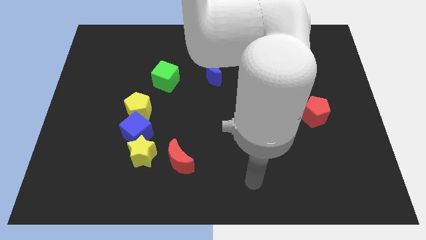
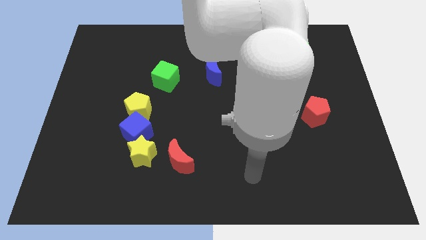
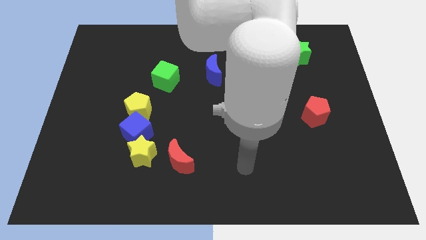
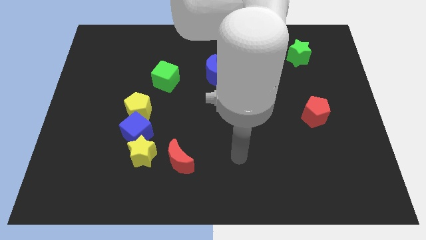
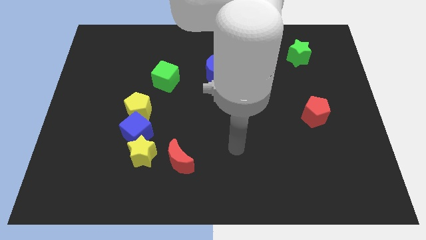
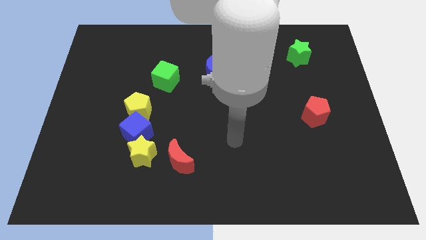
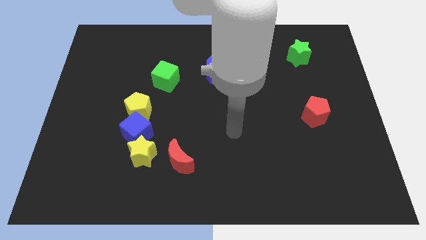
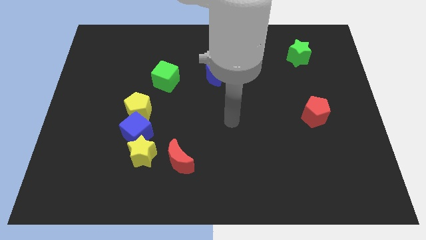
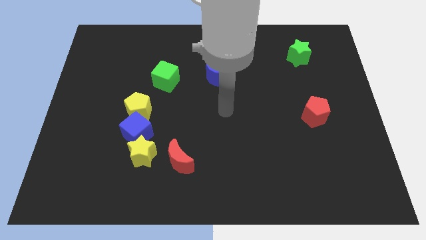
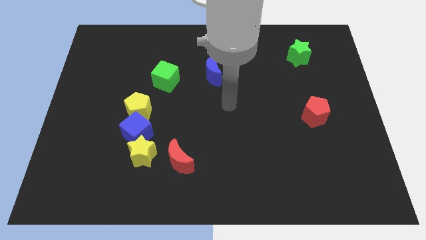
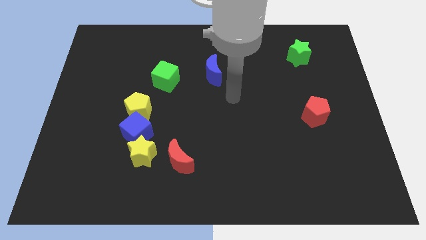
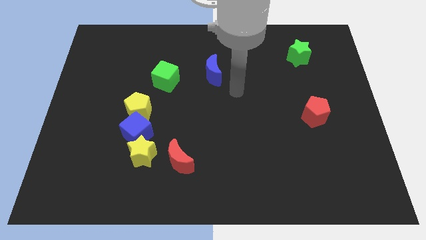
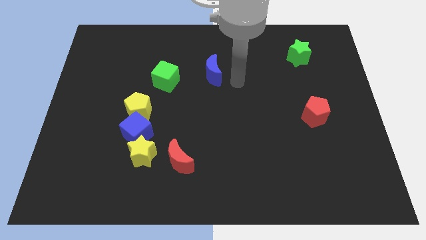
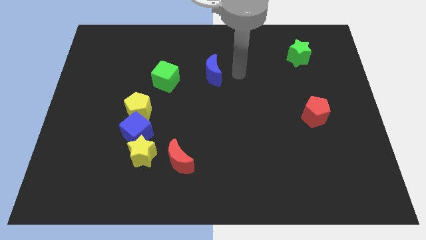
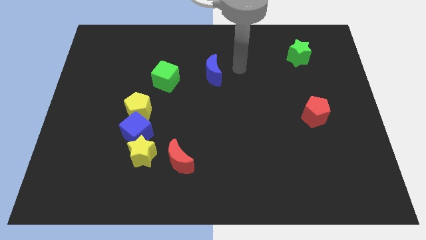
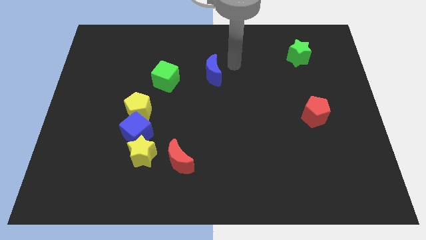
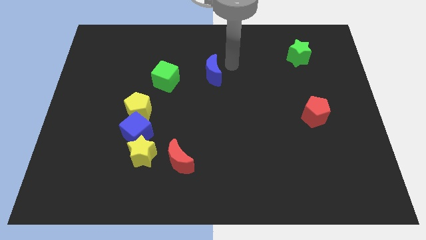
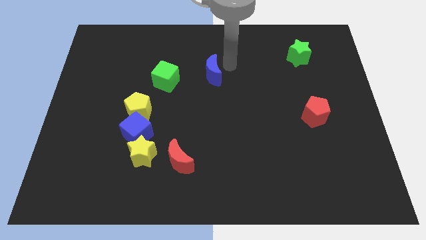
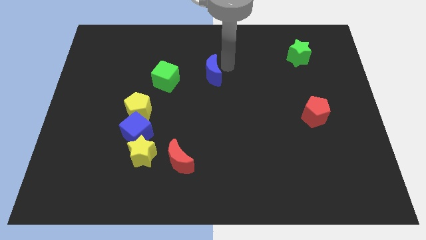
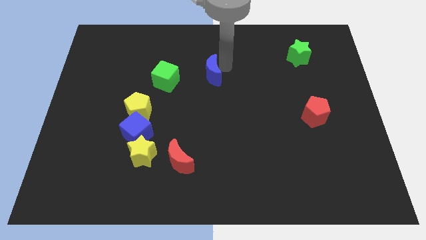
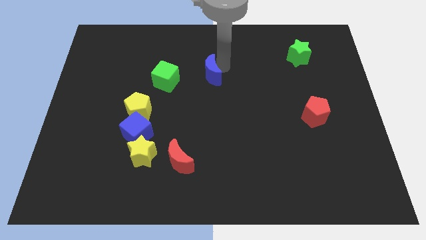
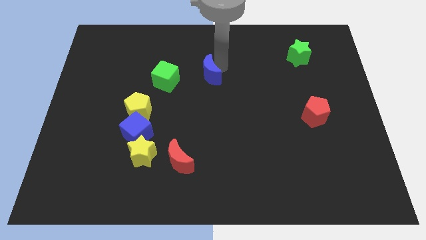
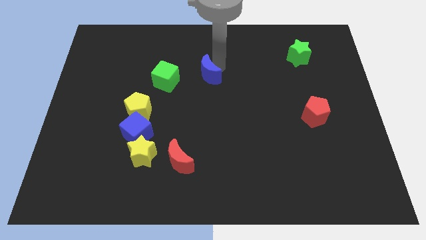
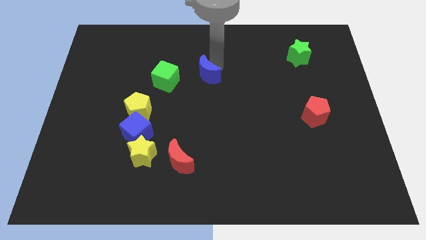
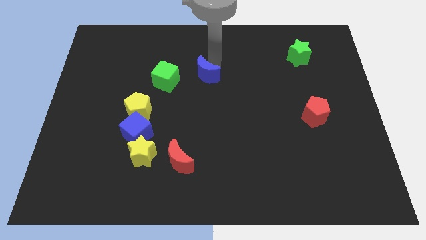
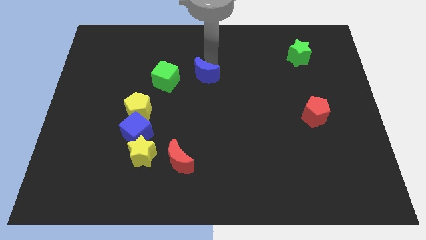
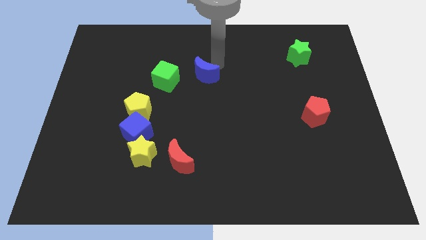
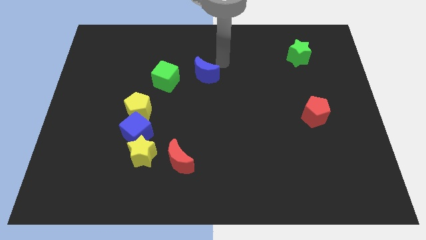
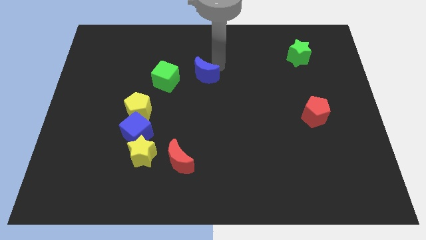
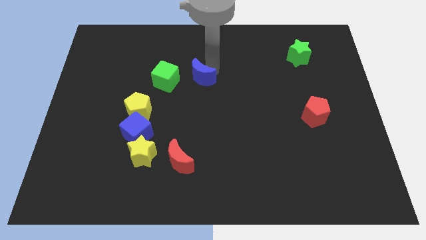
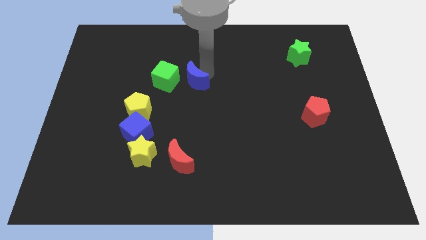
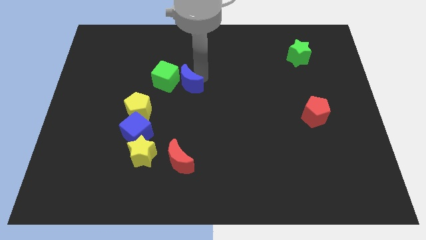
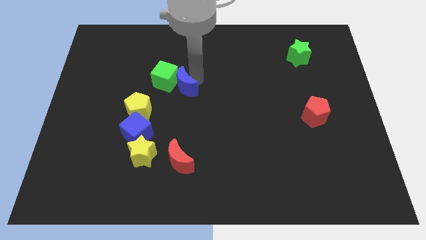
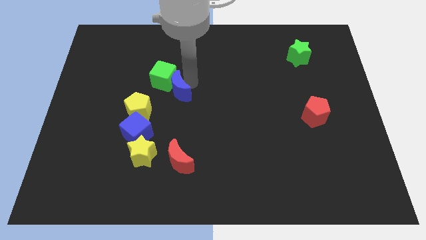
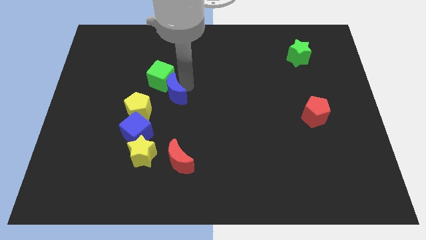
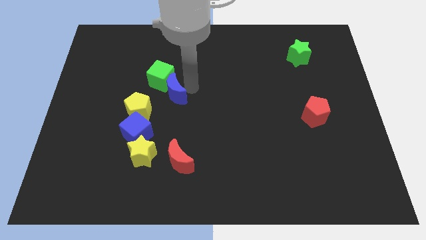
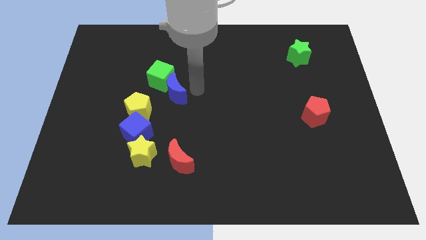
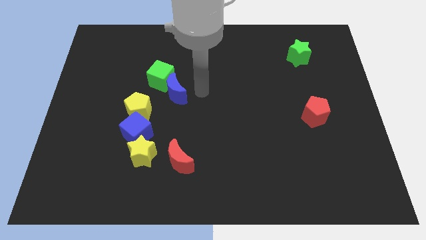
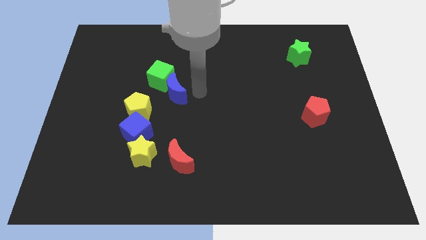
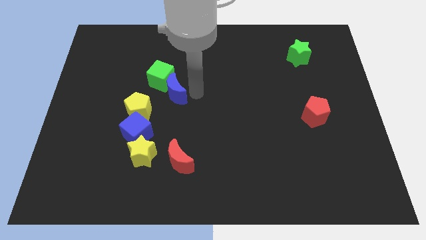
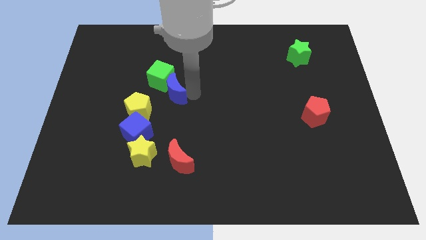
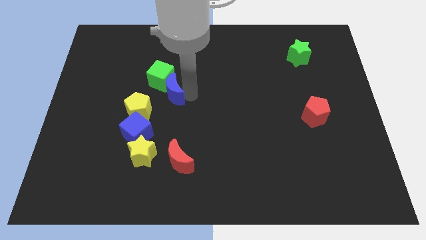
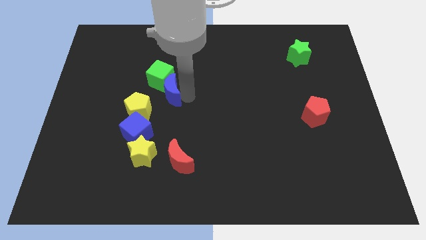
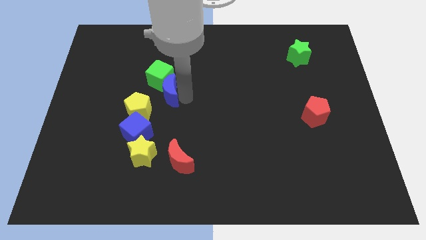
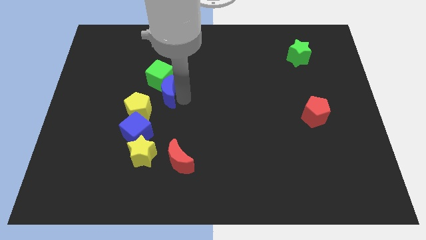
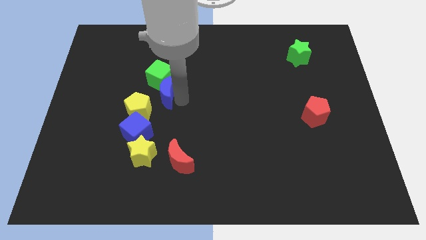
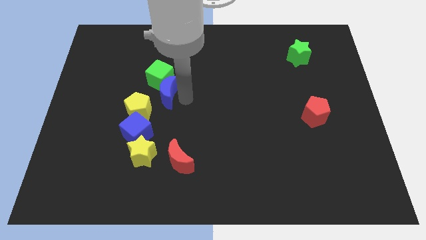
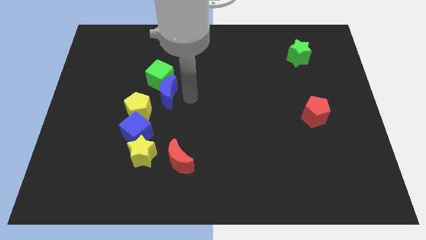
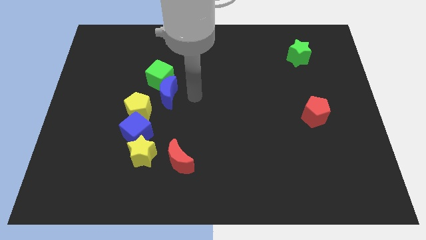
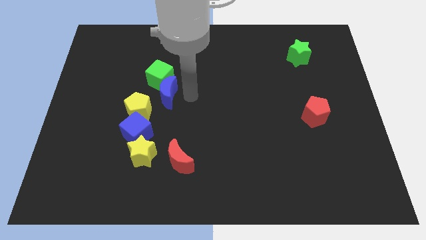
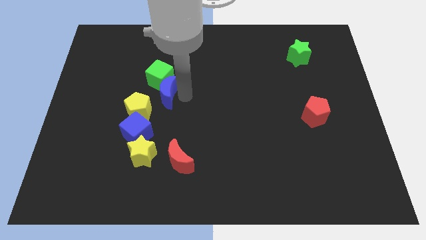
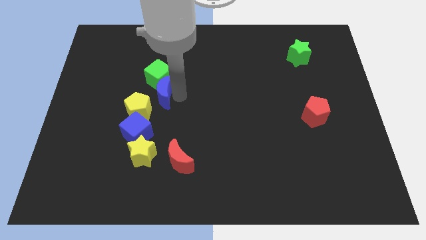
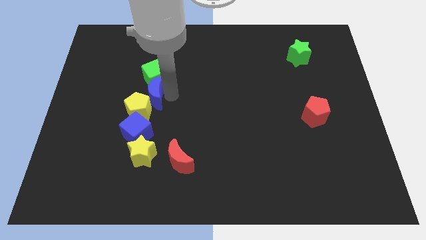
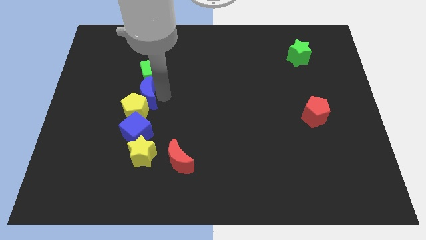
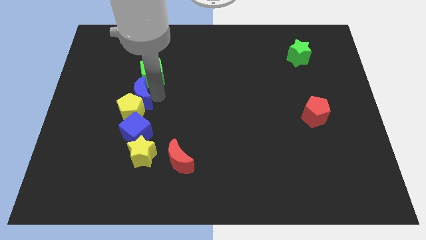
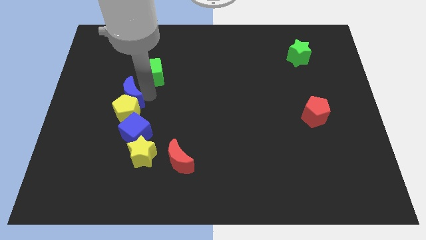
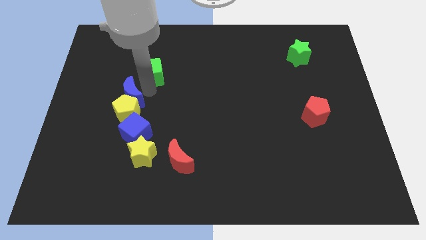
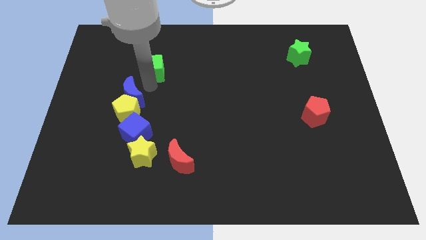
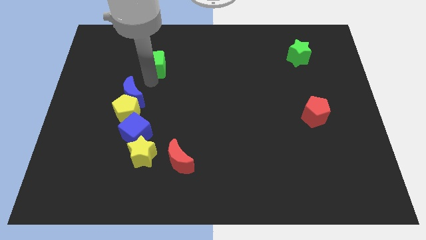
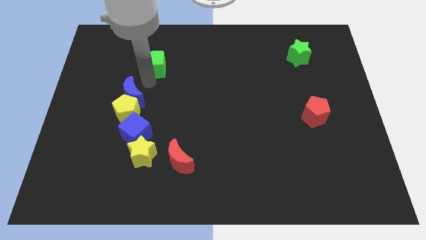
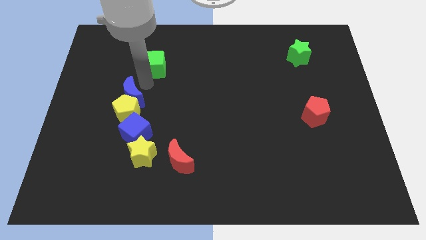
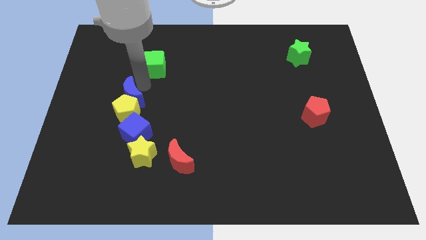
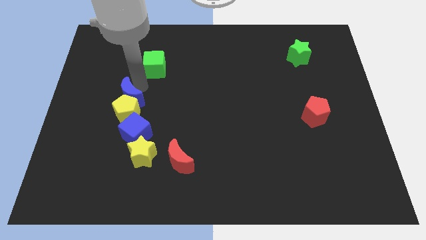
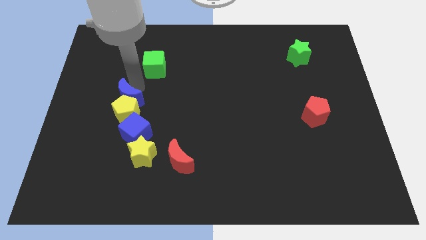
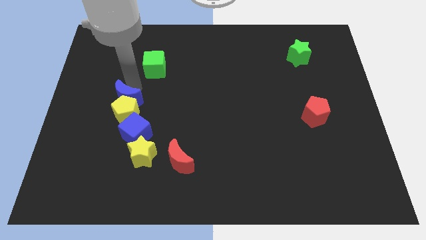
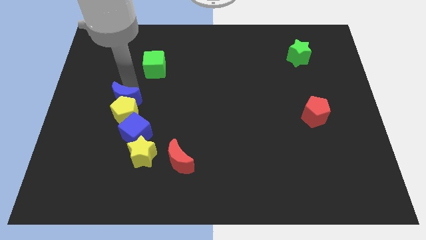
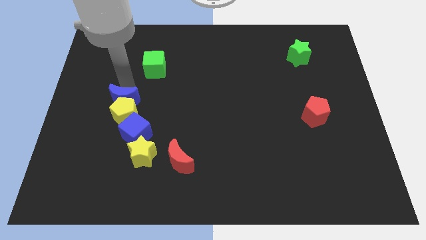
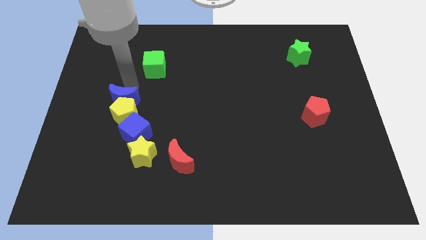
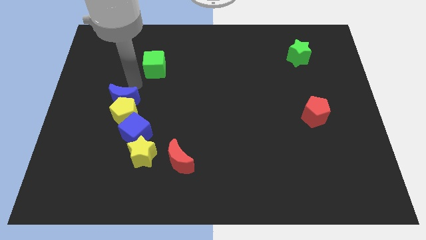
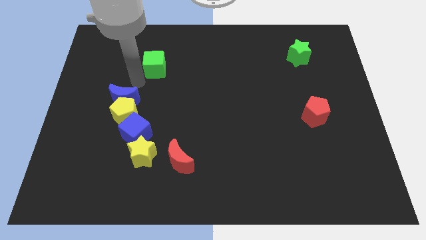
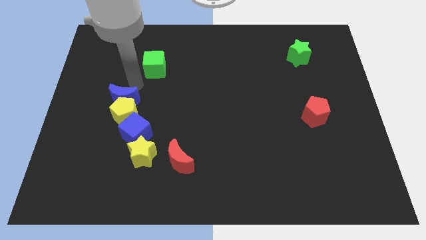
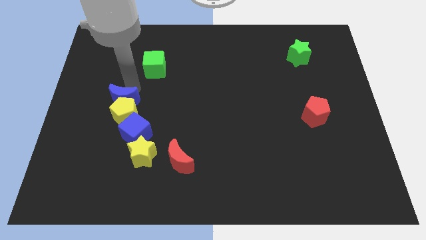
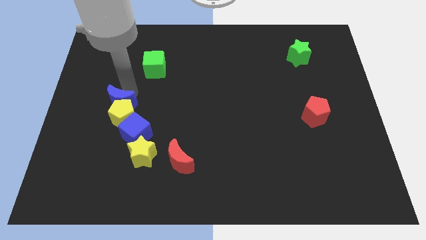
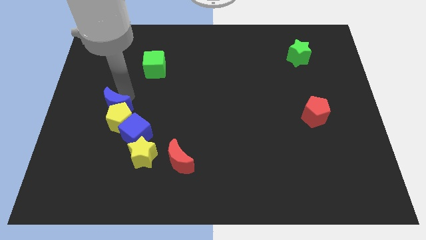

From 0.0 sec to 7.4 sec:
slide the blue moon downwards and then to the left

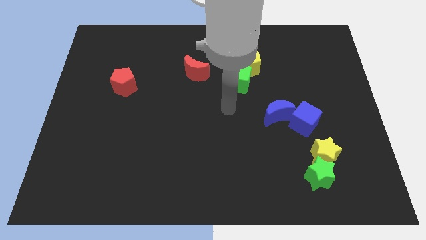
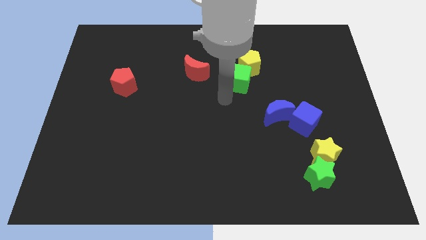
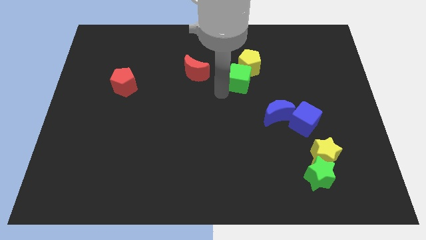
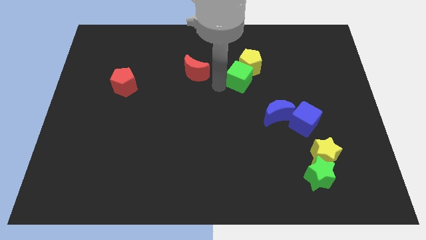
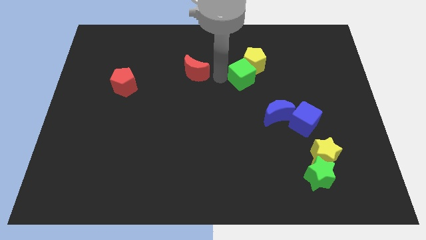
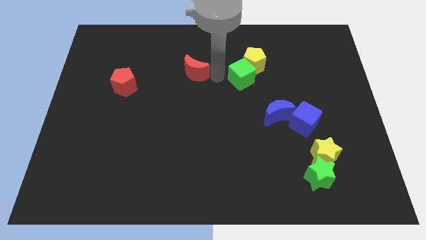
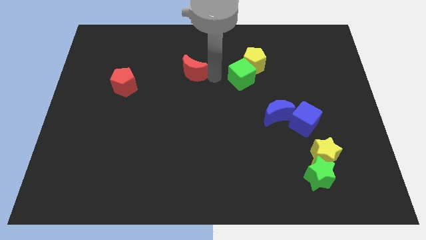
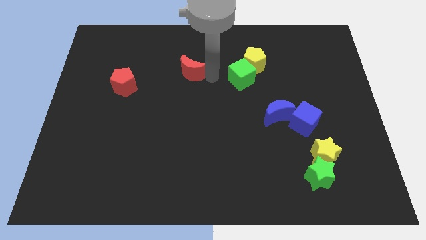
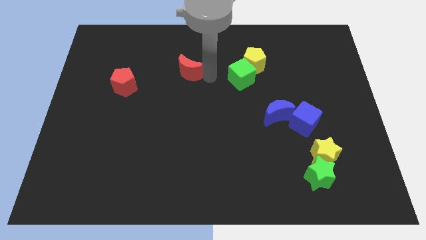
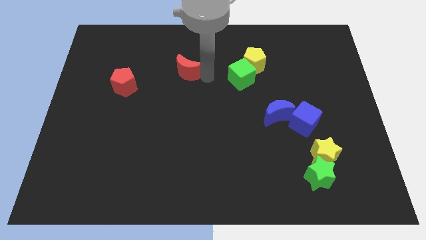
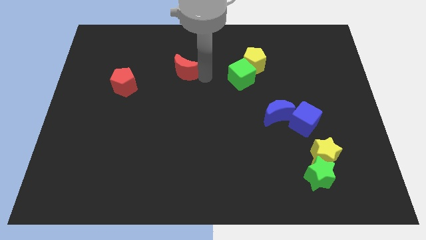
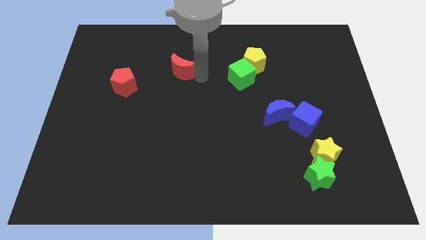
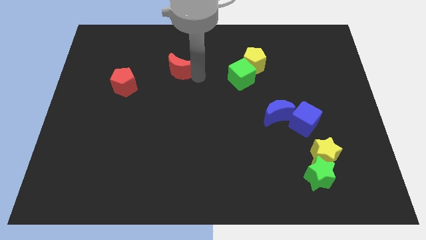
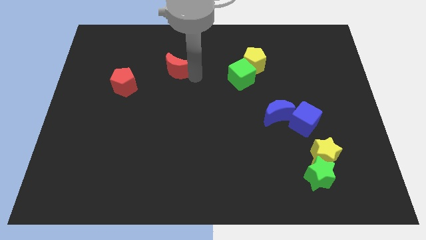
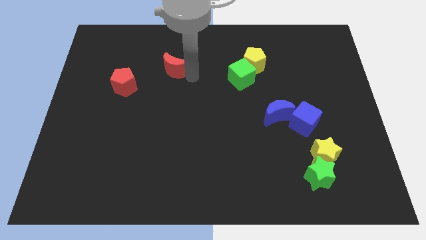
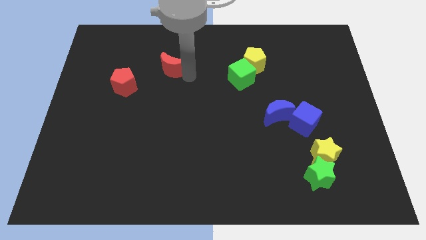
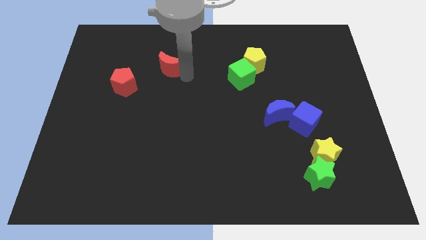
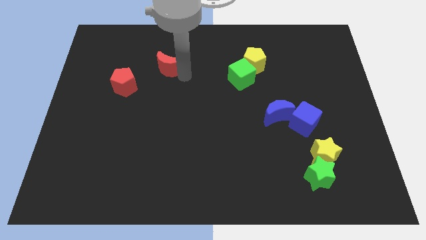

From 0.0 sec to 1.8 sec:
slightly move the red moon to the left
